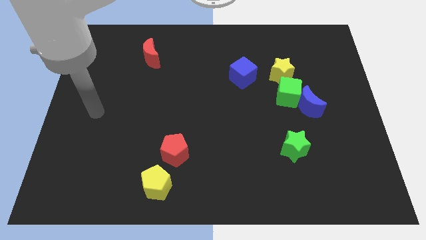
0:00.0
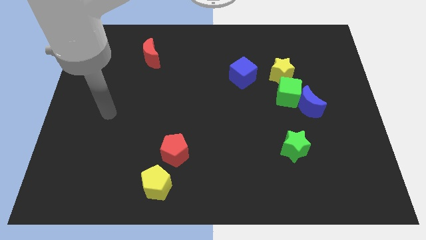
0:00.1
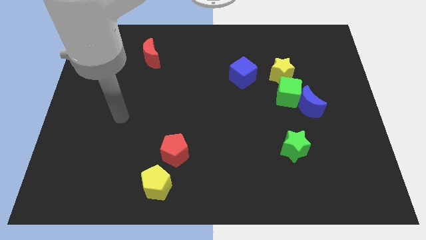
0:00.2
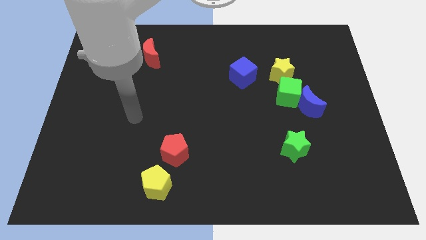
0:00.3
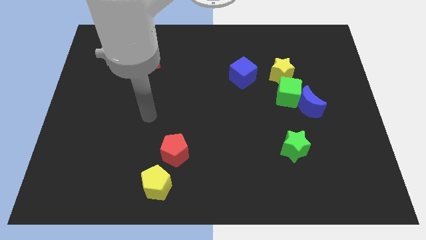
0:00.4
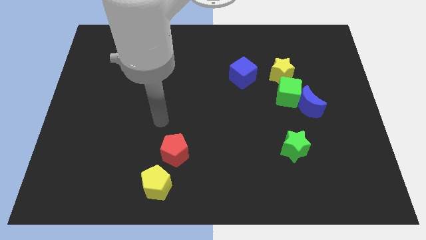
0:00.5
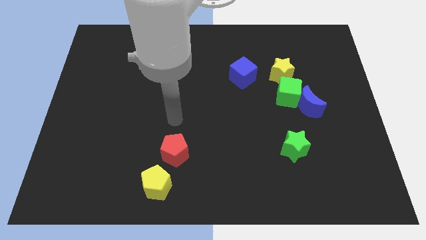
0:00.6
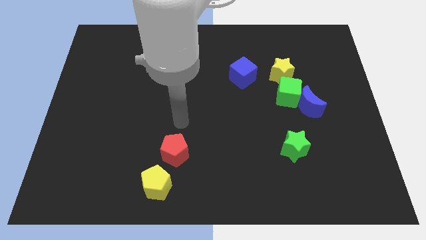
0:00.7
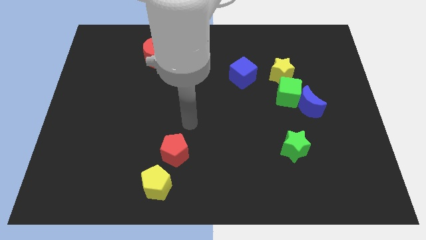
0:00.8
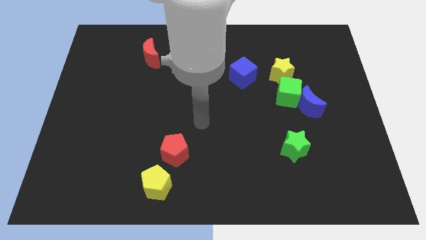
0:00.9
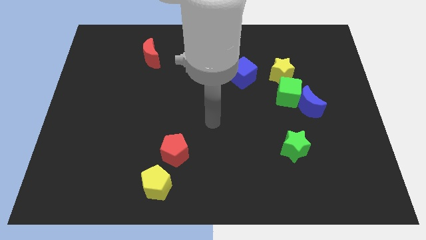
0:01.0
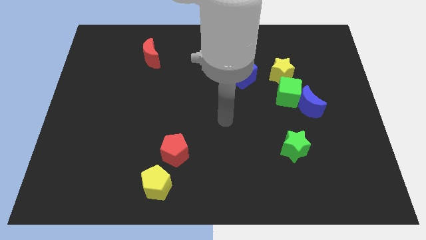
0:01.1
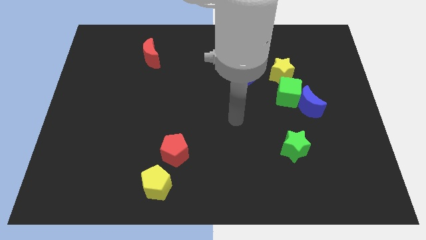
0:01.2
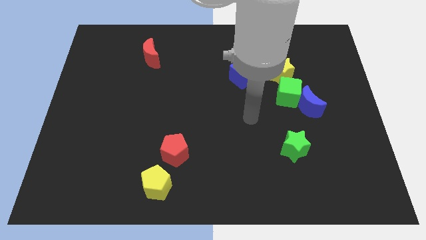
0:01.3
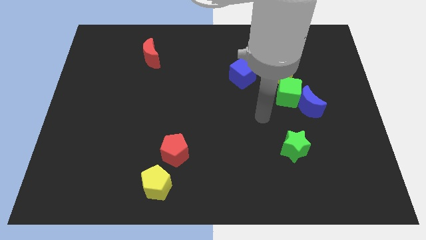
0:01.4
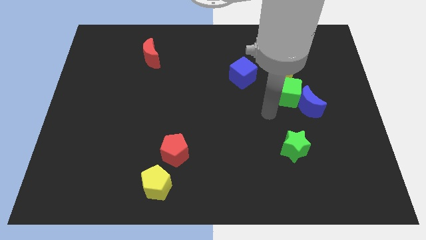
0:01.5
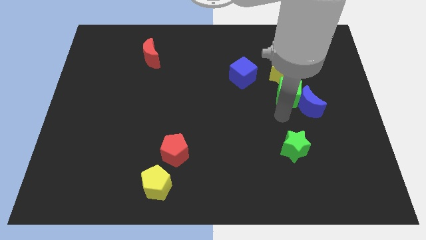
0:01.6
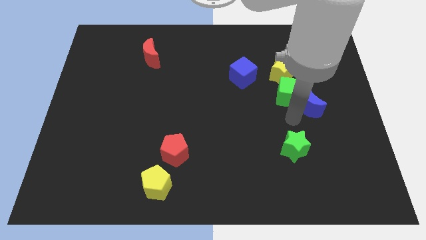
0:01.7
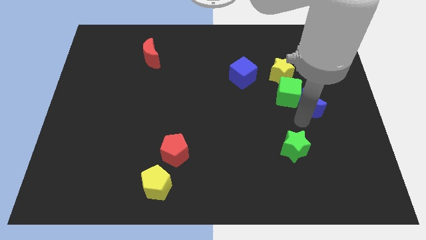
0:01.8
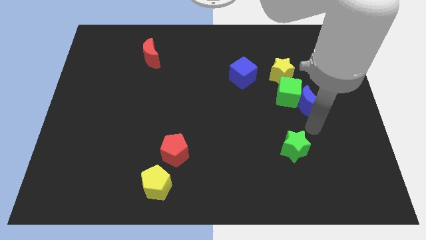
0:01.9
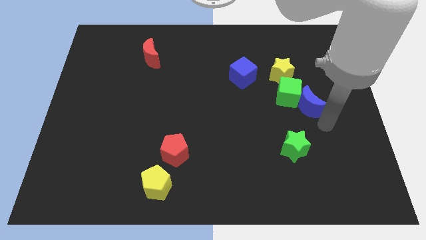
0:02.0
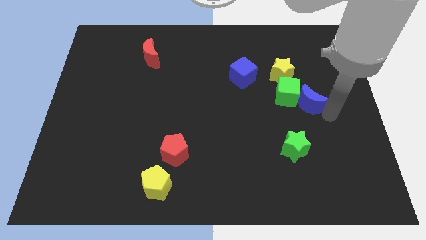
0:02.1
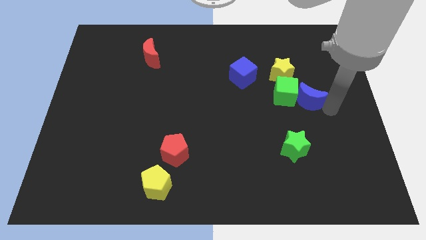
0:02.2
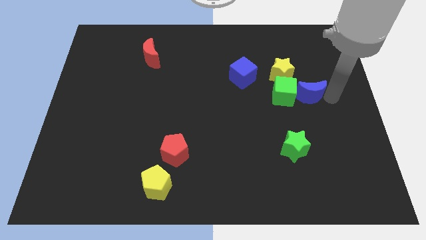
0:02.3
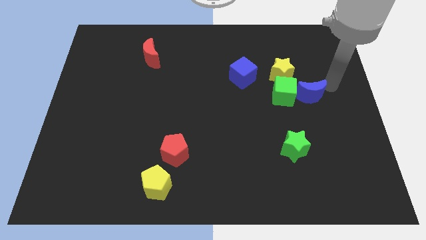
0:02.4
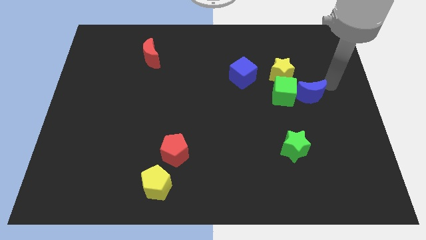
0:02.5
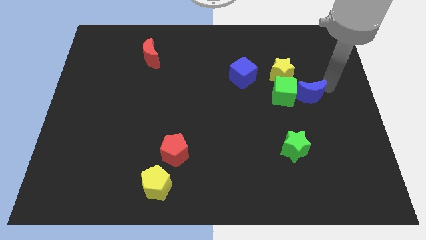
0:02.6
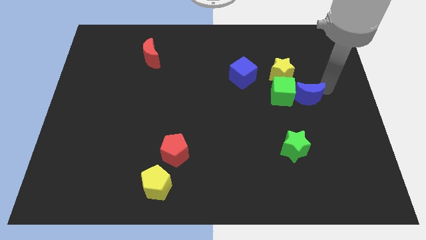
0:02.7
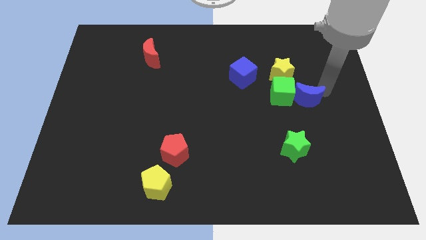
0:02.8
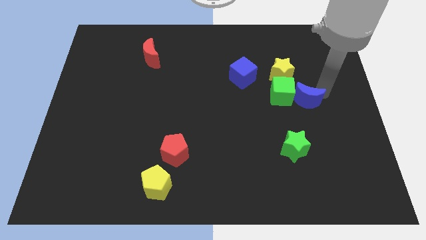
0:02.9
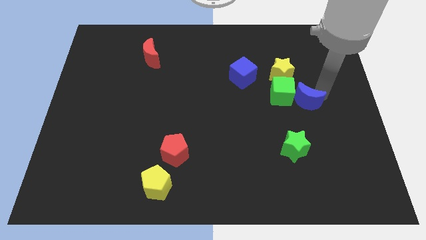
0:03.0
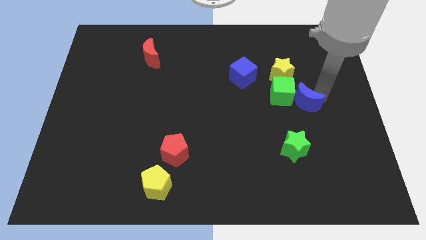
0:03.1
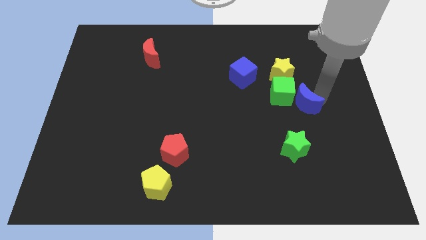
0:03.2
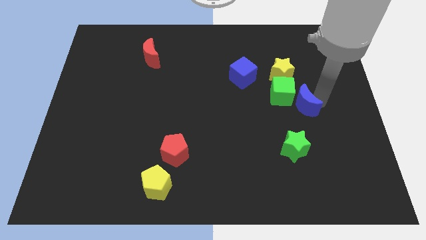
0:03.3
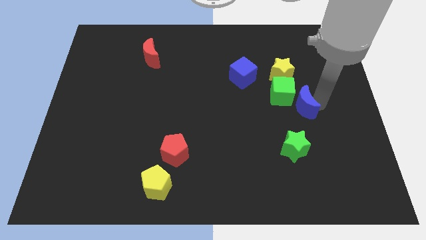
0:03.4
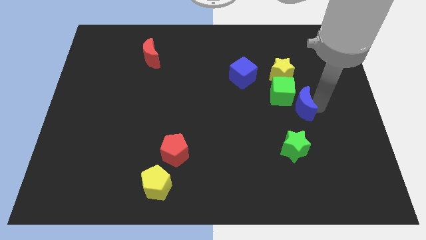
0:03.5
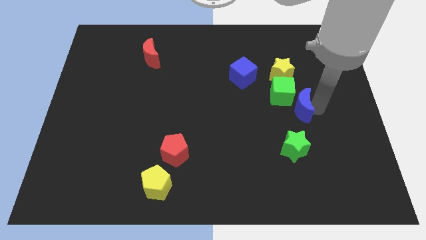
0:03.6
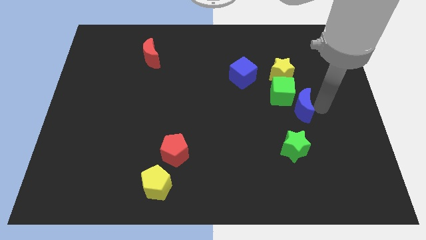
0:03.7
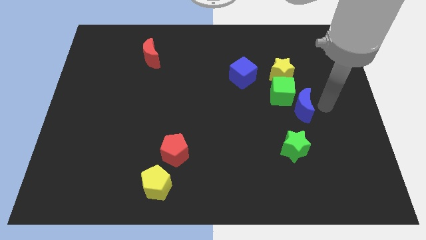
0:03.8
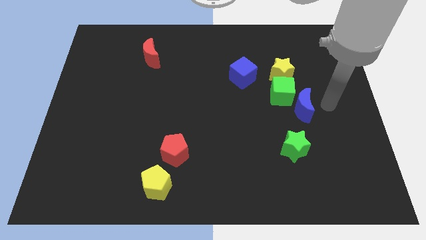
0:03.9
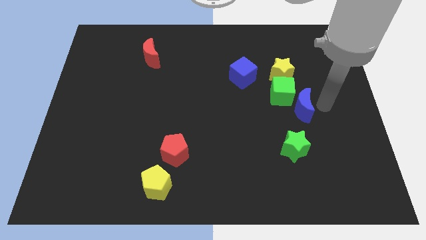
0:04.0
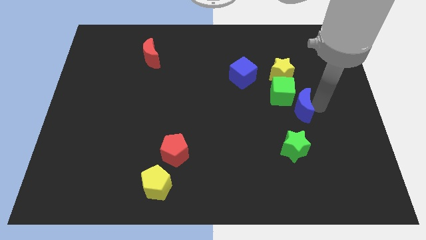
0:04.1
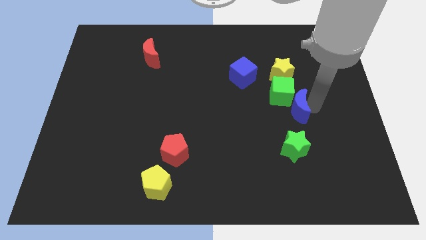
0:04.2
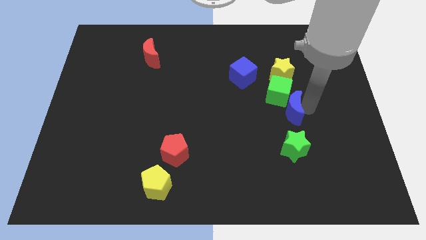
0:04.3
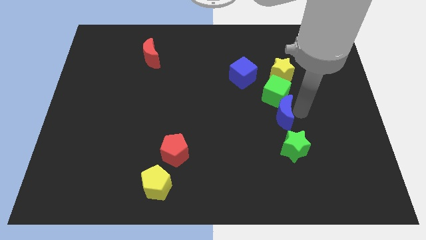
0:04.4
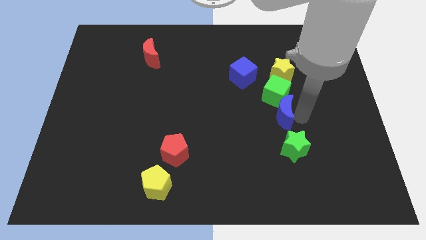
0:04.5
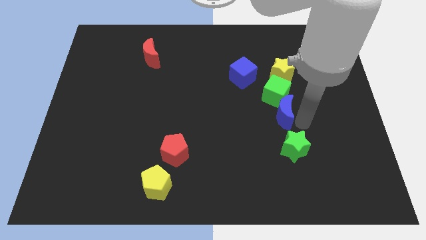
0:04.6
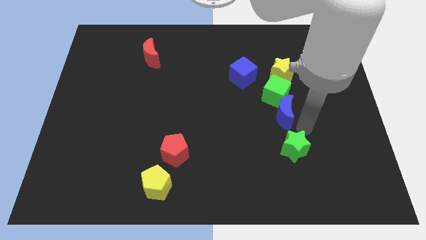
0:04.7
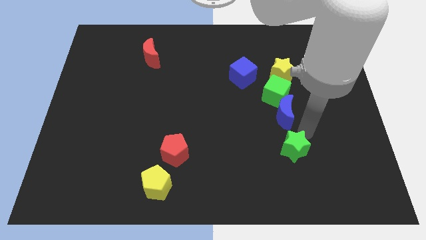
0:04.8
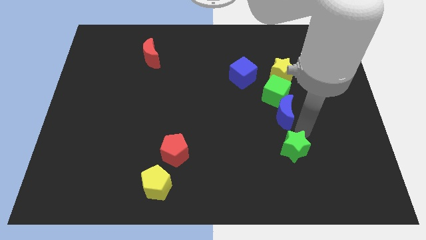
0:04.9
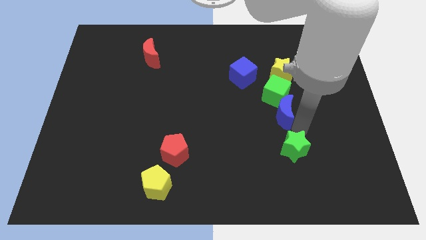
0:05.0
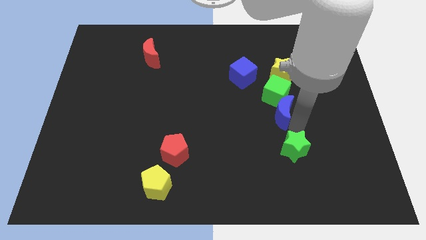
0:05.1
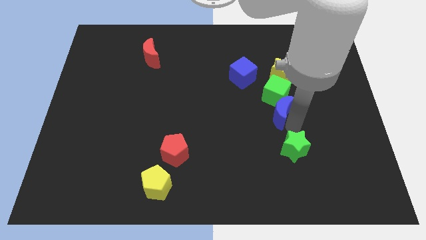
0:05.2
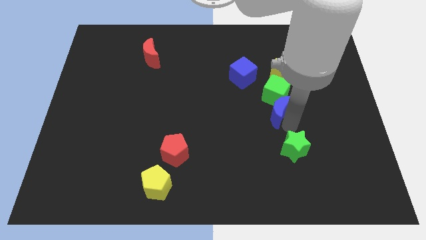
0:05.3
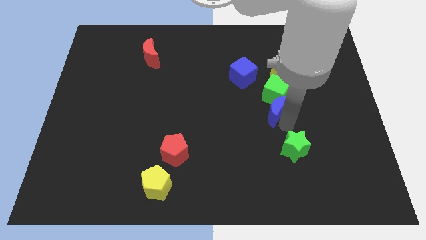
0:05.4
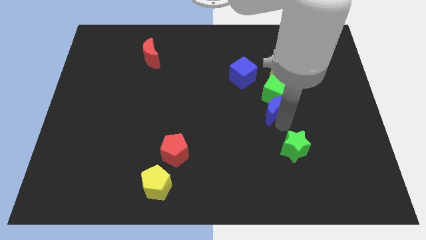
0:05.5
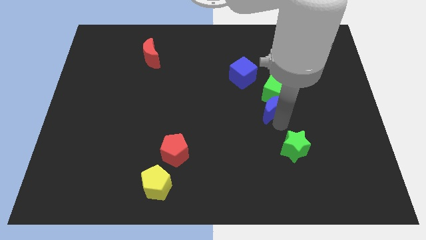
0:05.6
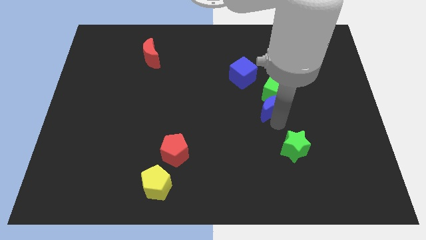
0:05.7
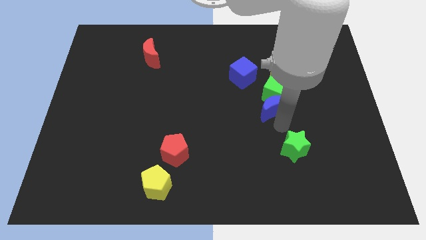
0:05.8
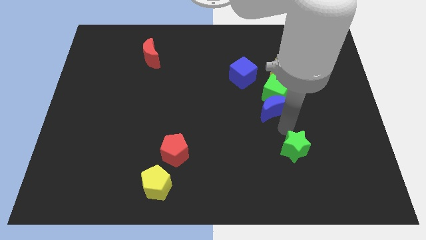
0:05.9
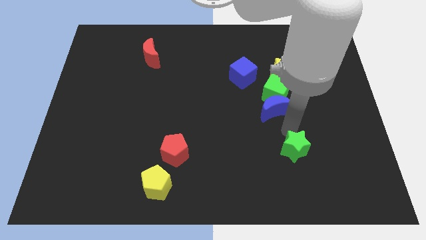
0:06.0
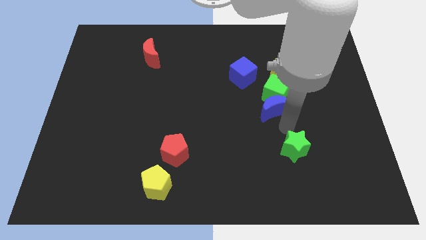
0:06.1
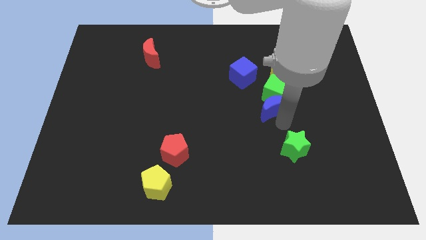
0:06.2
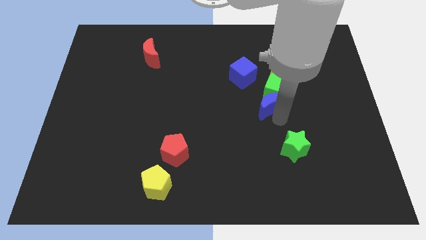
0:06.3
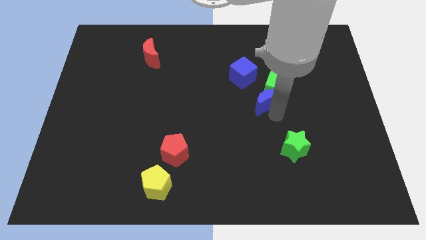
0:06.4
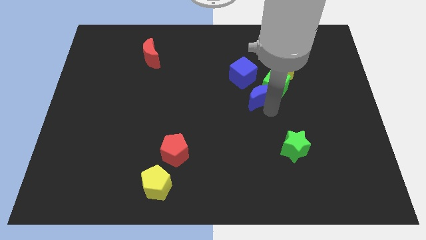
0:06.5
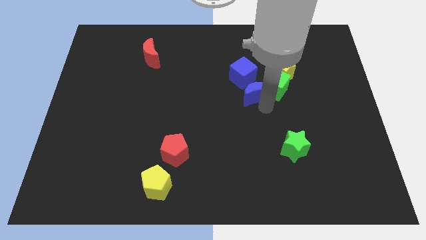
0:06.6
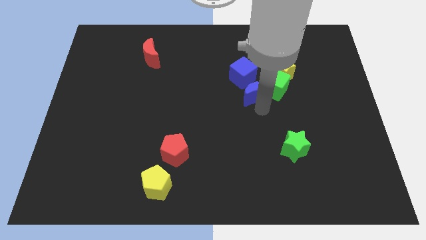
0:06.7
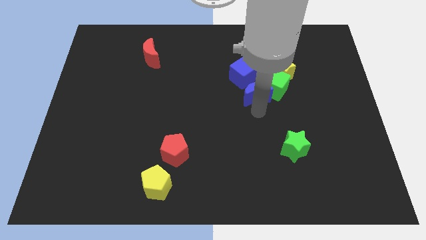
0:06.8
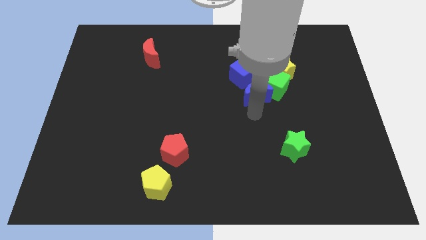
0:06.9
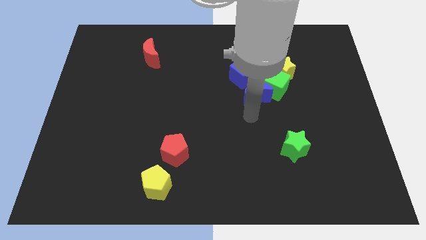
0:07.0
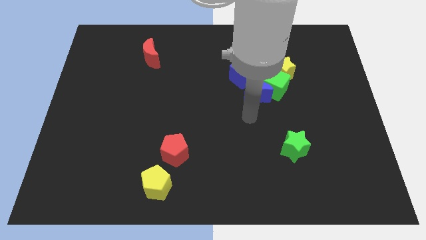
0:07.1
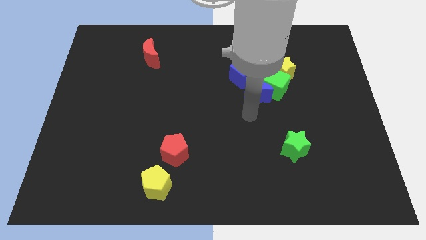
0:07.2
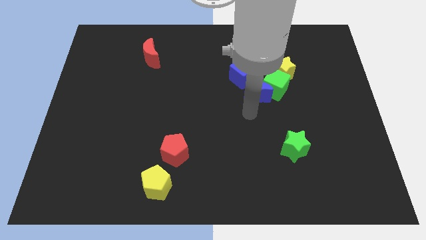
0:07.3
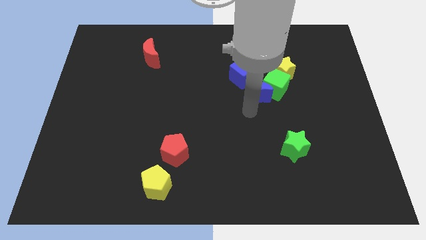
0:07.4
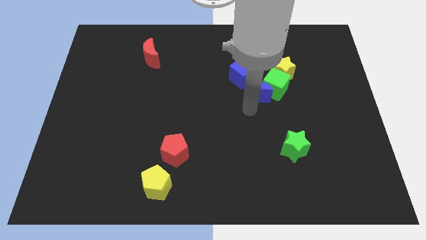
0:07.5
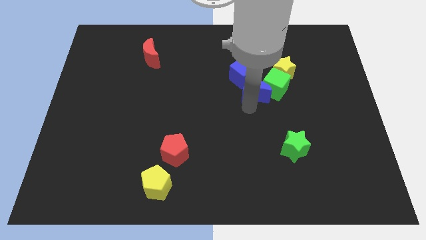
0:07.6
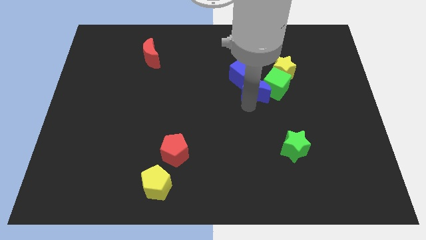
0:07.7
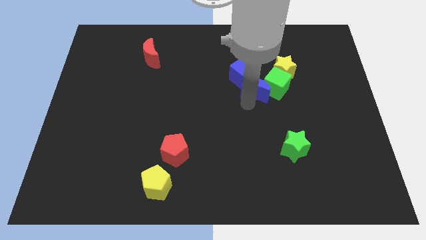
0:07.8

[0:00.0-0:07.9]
push the blue moon to the blue cube
